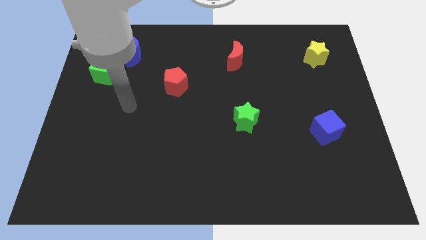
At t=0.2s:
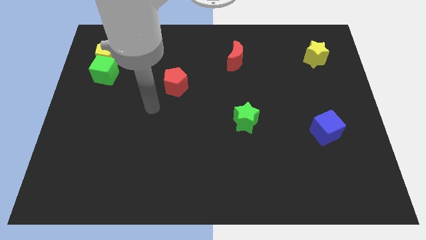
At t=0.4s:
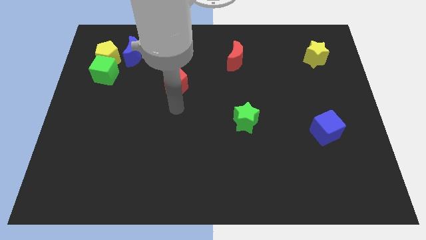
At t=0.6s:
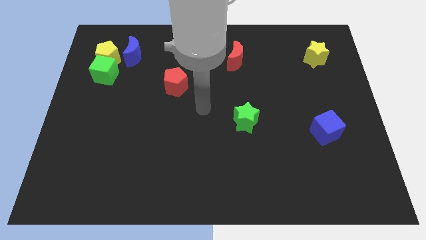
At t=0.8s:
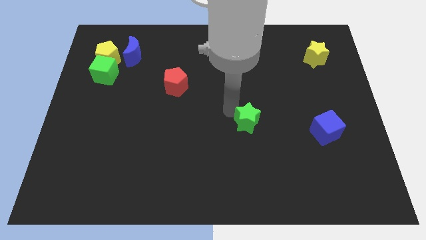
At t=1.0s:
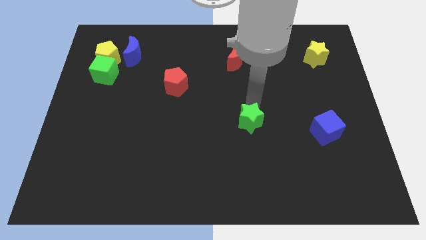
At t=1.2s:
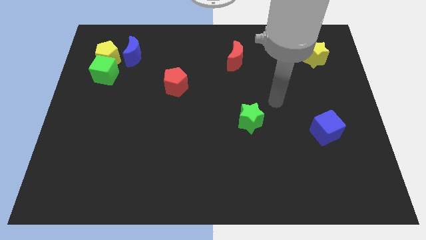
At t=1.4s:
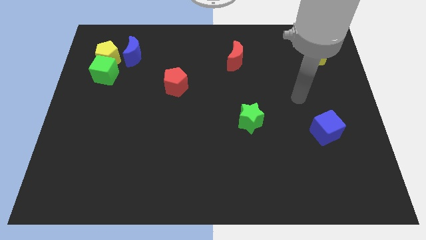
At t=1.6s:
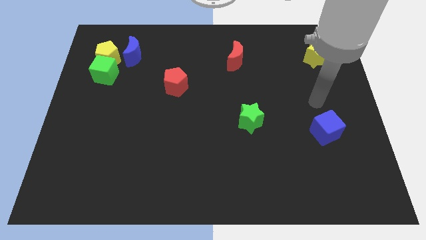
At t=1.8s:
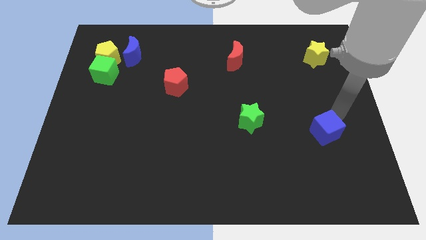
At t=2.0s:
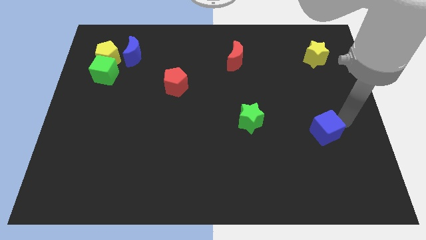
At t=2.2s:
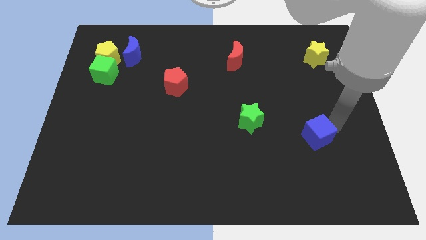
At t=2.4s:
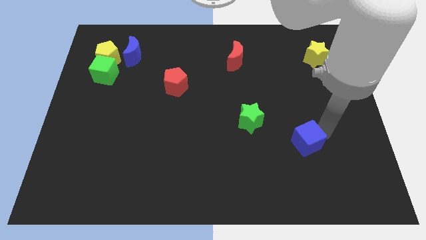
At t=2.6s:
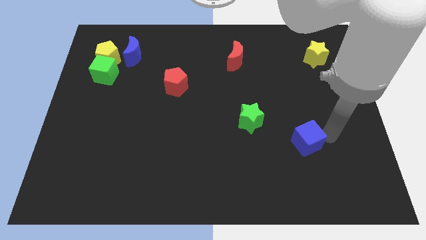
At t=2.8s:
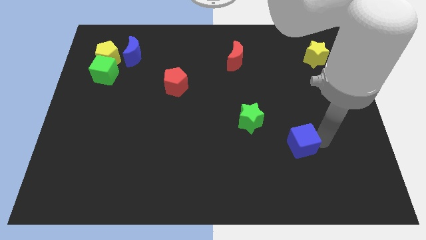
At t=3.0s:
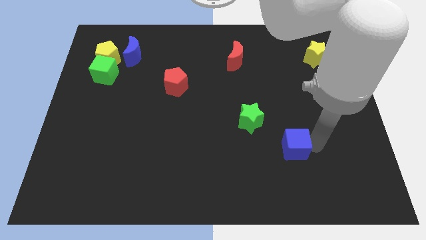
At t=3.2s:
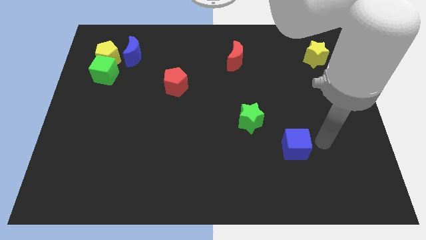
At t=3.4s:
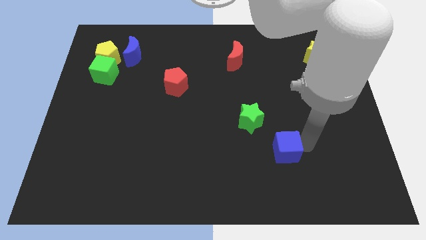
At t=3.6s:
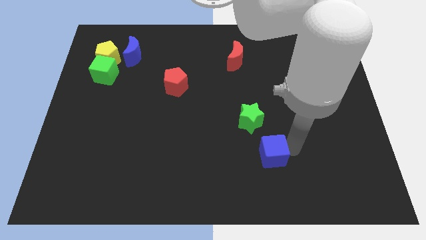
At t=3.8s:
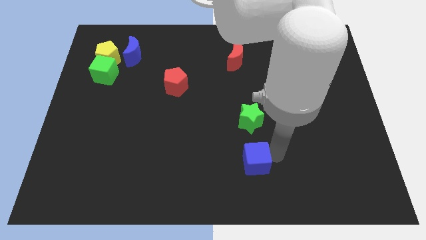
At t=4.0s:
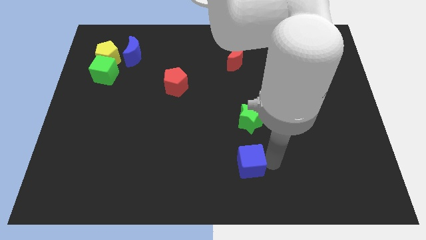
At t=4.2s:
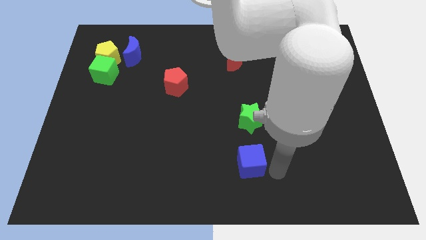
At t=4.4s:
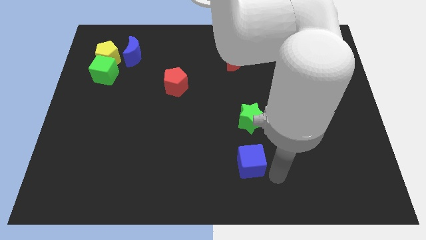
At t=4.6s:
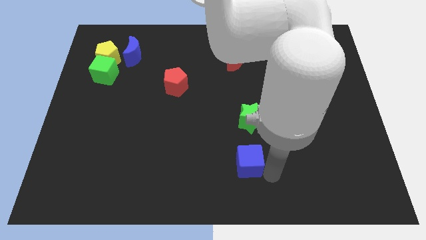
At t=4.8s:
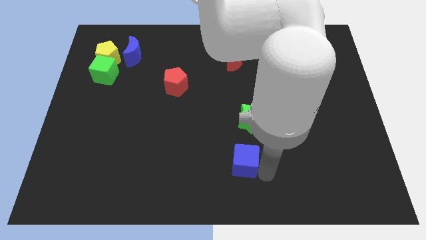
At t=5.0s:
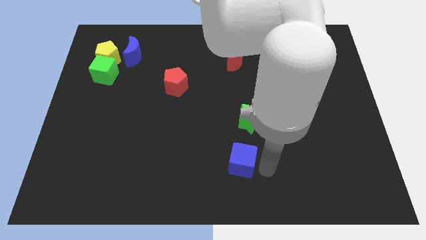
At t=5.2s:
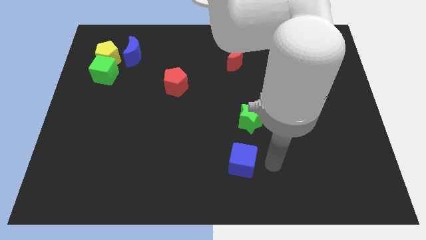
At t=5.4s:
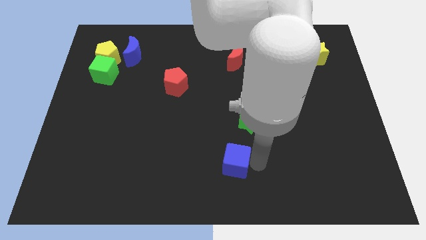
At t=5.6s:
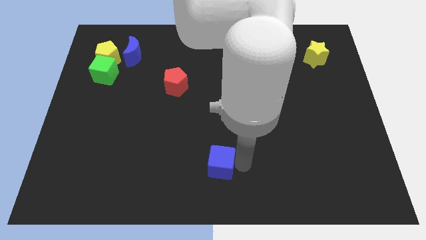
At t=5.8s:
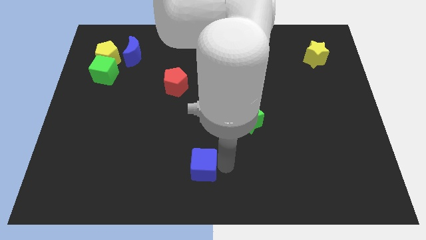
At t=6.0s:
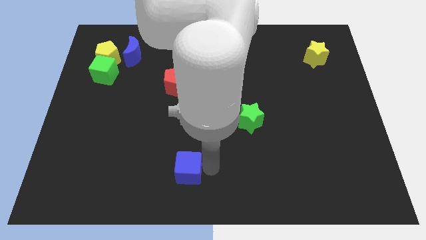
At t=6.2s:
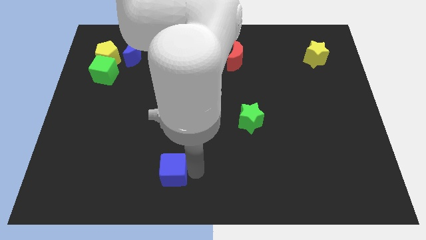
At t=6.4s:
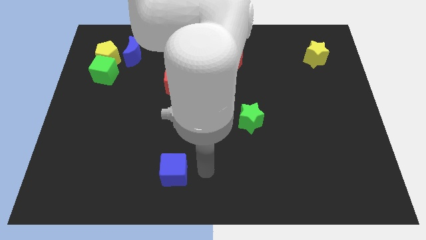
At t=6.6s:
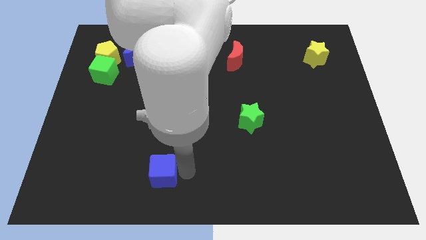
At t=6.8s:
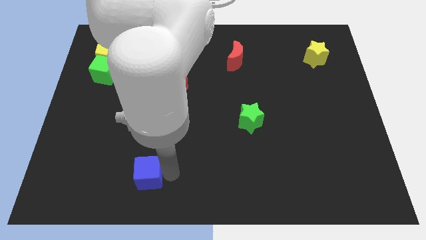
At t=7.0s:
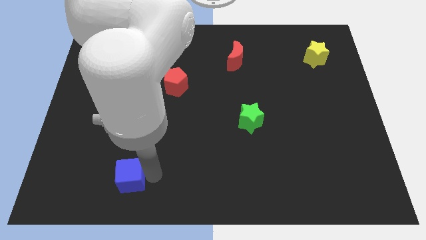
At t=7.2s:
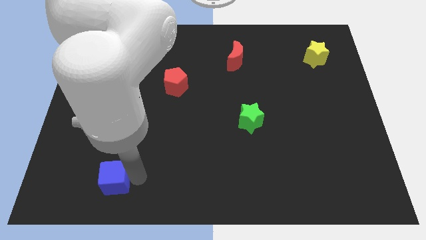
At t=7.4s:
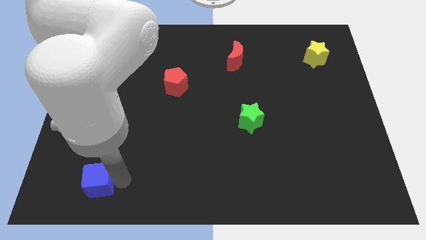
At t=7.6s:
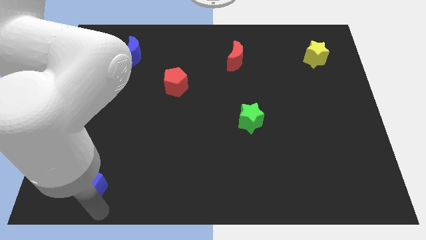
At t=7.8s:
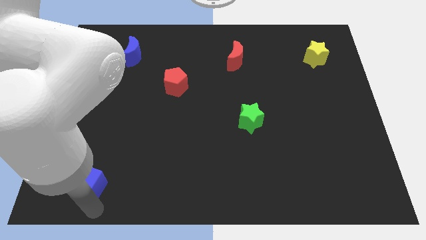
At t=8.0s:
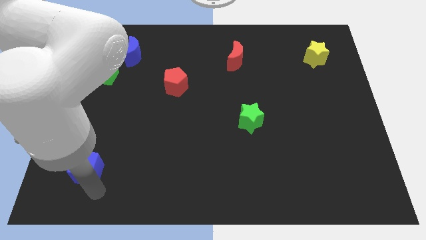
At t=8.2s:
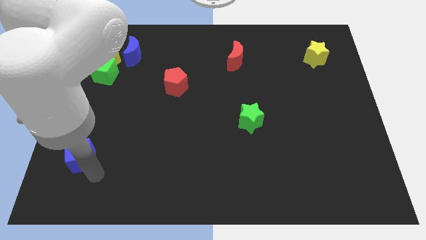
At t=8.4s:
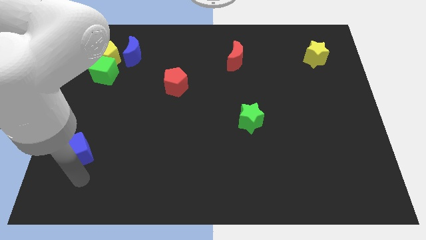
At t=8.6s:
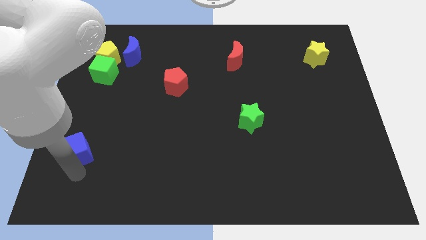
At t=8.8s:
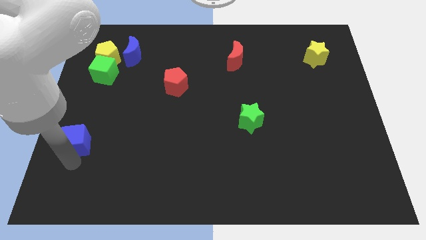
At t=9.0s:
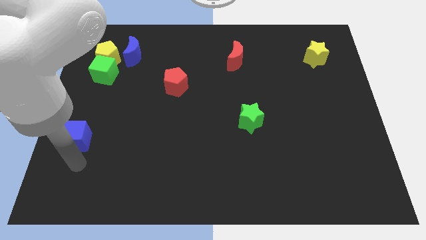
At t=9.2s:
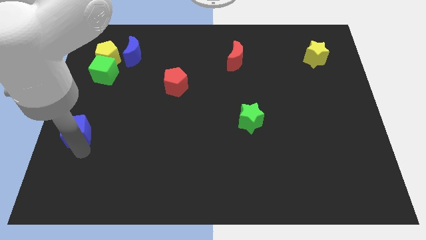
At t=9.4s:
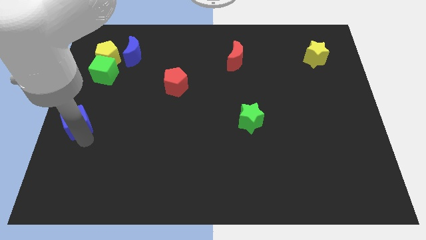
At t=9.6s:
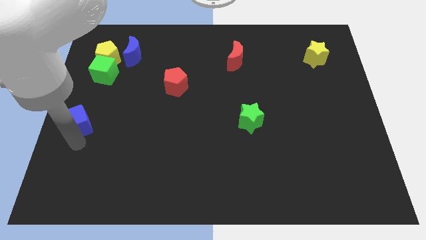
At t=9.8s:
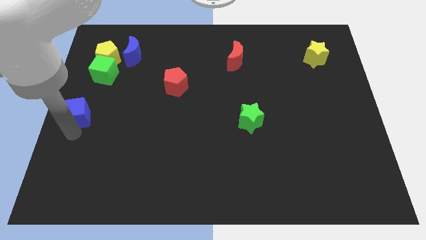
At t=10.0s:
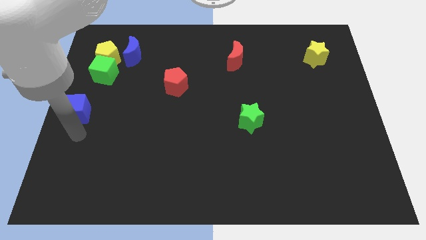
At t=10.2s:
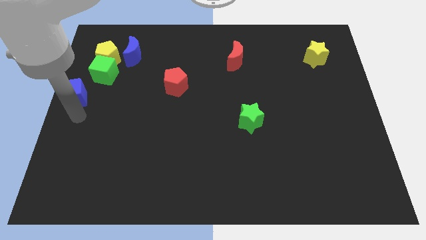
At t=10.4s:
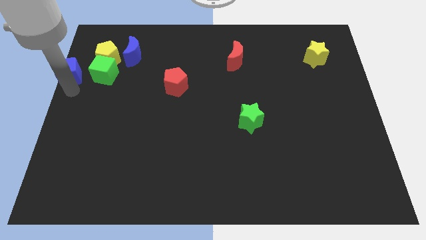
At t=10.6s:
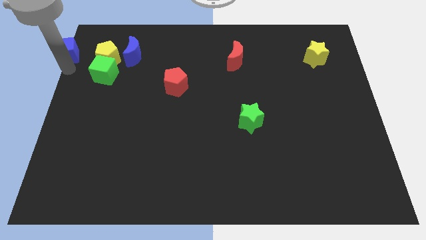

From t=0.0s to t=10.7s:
put the blue cube to the top left of the board

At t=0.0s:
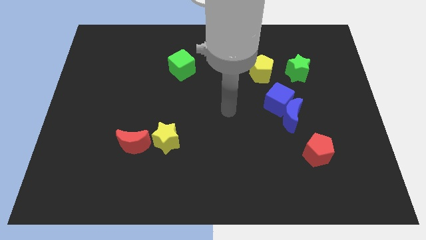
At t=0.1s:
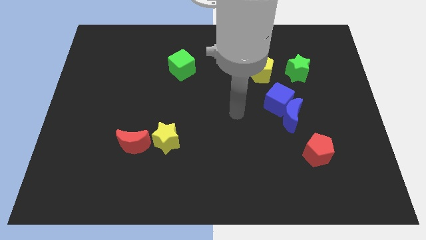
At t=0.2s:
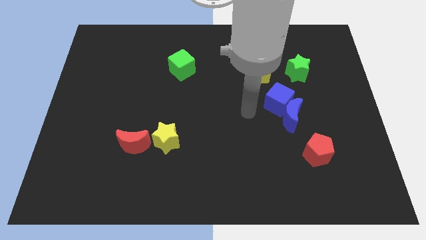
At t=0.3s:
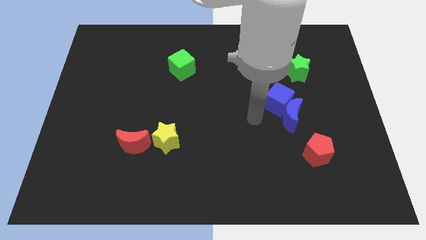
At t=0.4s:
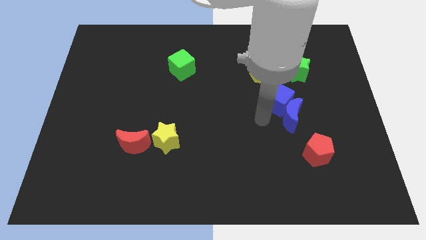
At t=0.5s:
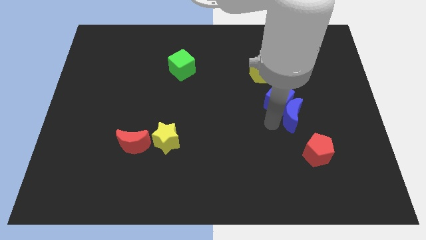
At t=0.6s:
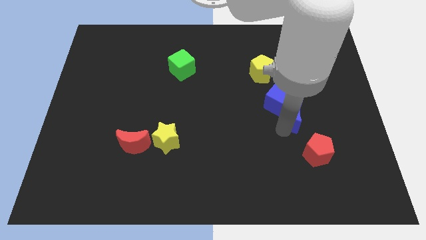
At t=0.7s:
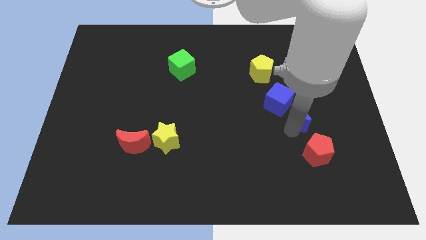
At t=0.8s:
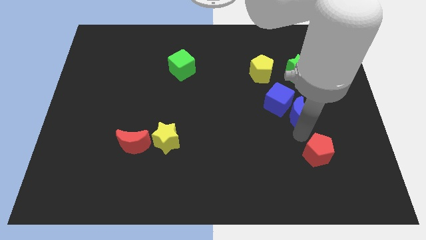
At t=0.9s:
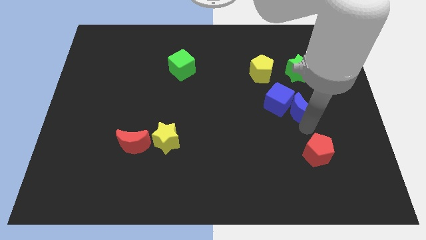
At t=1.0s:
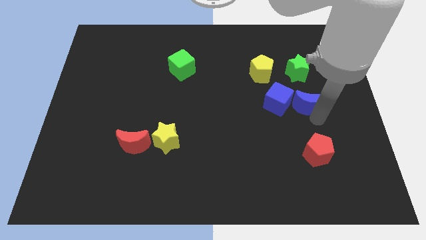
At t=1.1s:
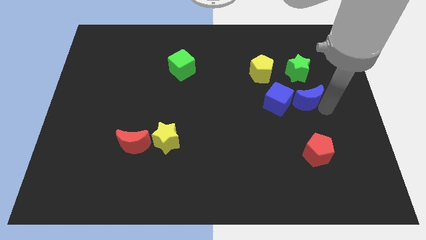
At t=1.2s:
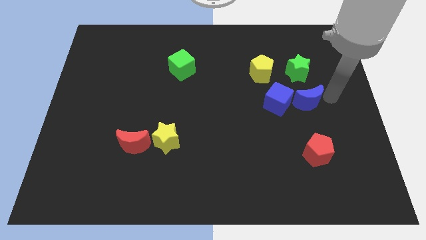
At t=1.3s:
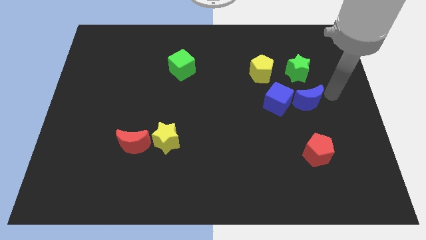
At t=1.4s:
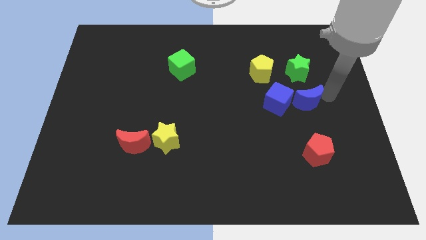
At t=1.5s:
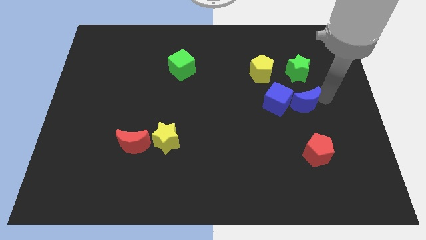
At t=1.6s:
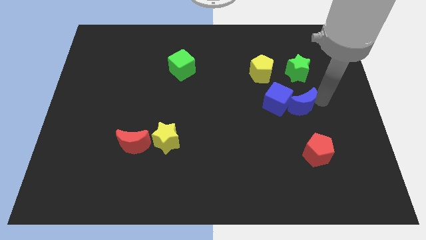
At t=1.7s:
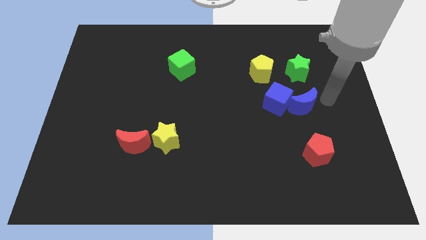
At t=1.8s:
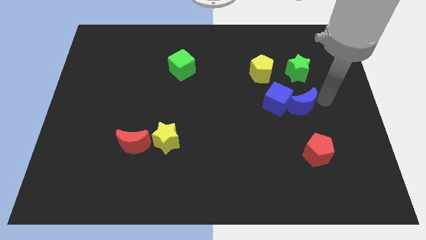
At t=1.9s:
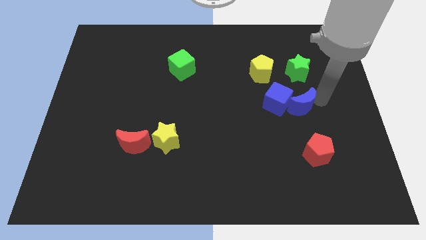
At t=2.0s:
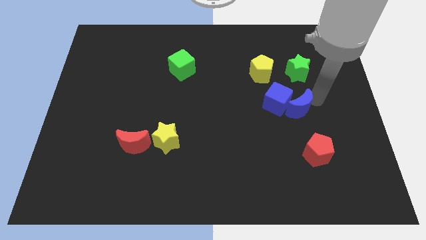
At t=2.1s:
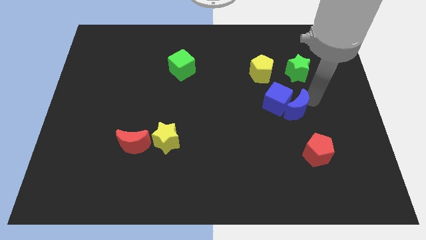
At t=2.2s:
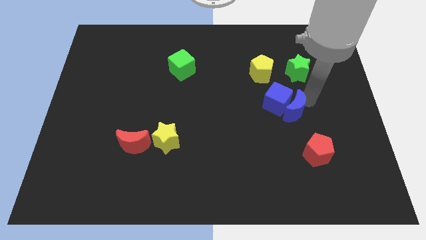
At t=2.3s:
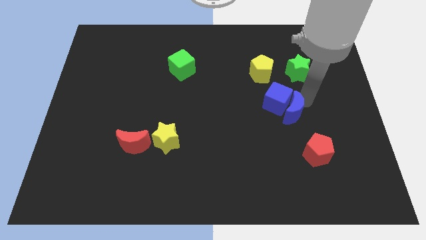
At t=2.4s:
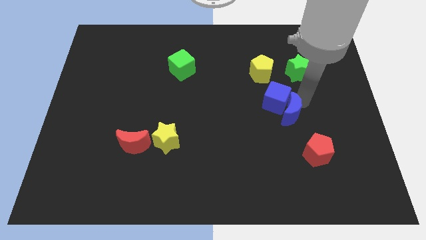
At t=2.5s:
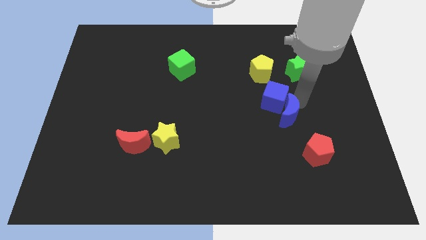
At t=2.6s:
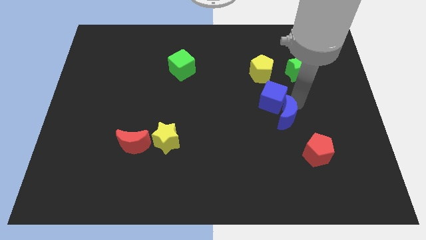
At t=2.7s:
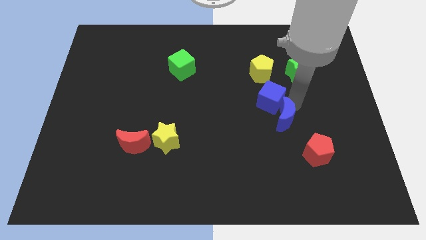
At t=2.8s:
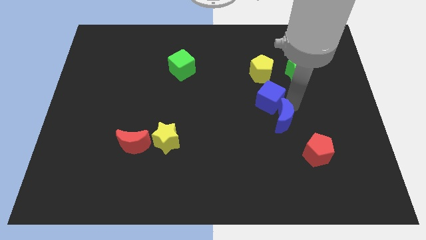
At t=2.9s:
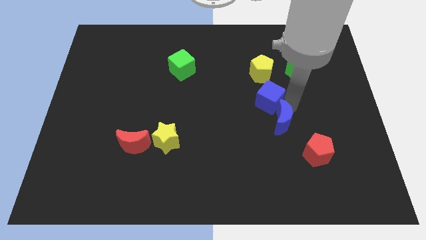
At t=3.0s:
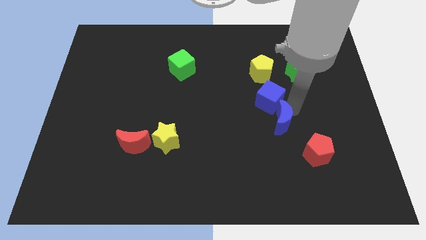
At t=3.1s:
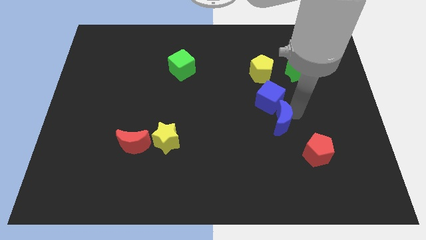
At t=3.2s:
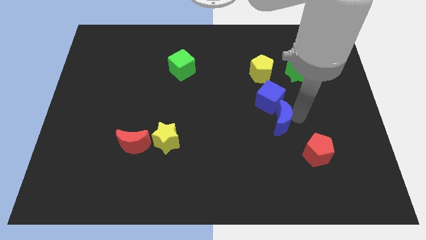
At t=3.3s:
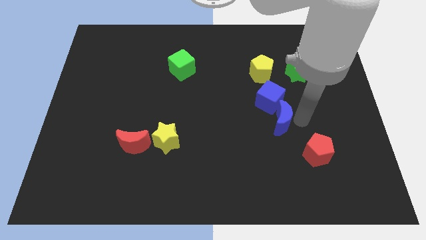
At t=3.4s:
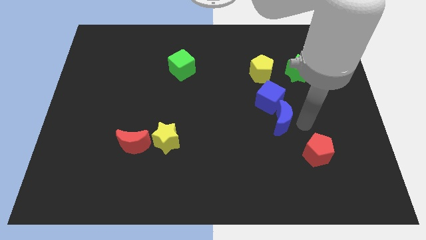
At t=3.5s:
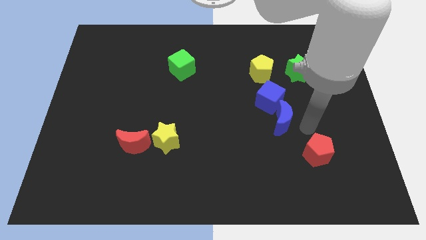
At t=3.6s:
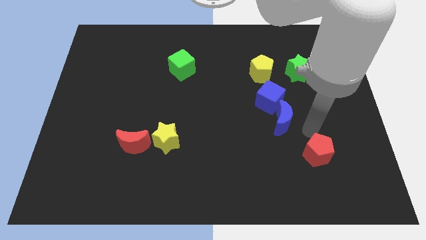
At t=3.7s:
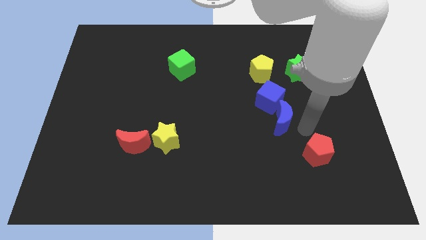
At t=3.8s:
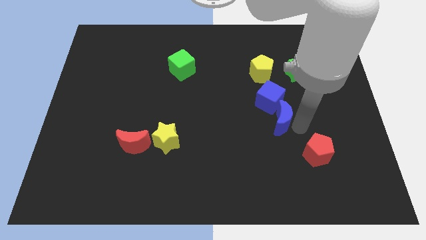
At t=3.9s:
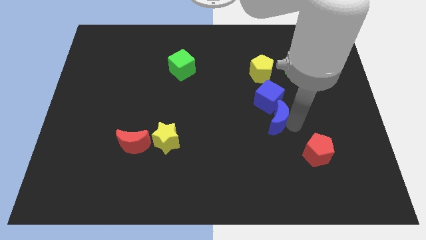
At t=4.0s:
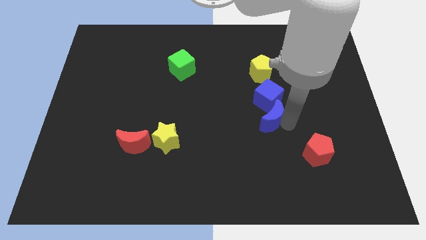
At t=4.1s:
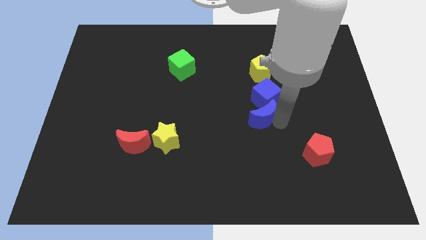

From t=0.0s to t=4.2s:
put the blue moon to the center
